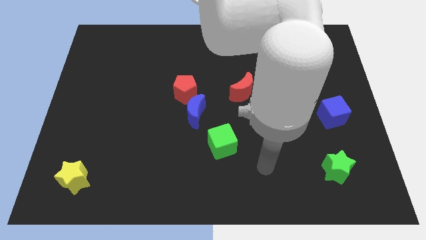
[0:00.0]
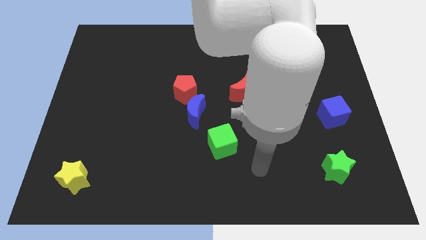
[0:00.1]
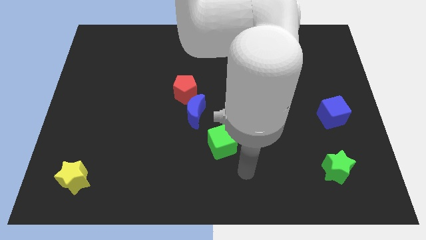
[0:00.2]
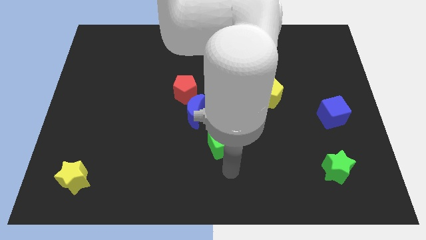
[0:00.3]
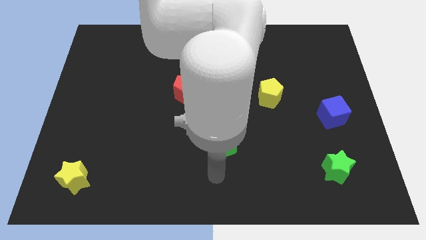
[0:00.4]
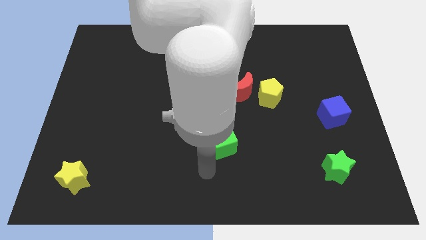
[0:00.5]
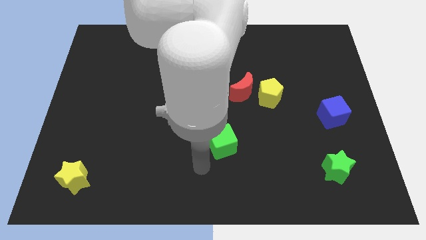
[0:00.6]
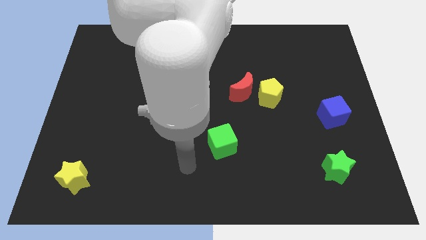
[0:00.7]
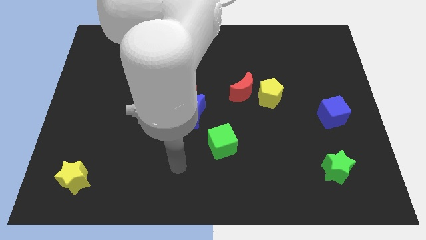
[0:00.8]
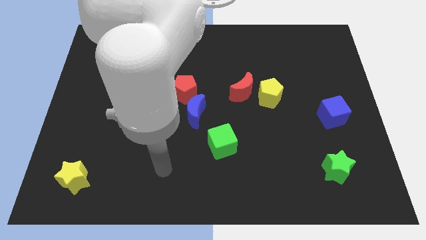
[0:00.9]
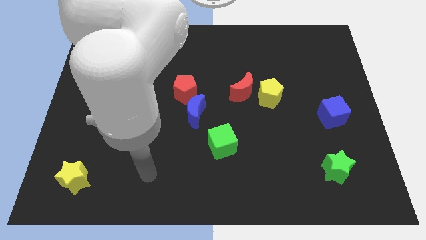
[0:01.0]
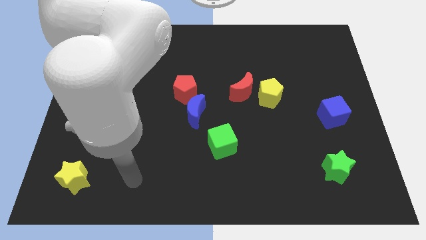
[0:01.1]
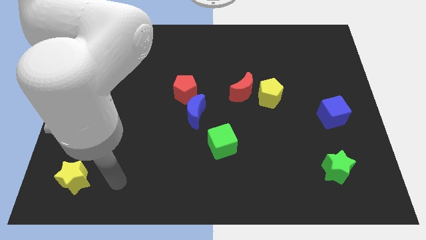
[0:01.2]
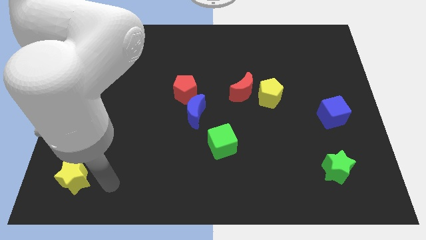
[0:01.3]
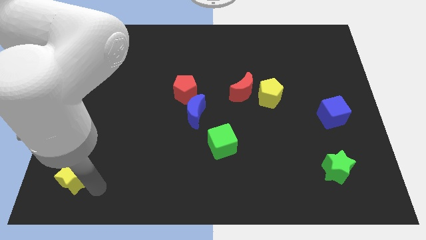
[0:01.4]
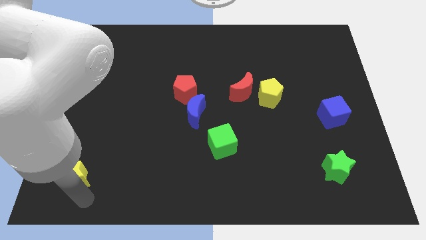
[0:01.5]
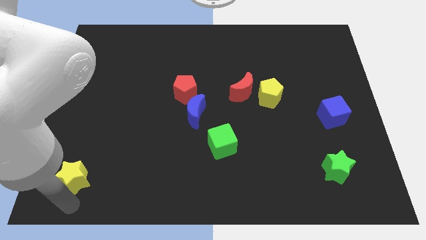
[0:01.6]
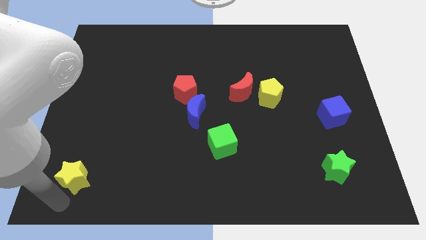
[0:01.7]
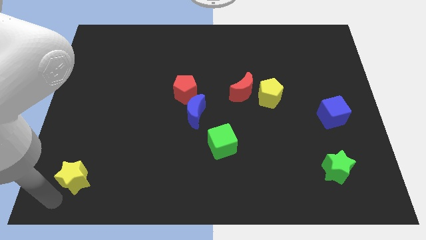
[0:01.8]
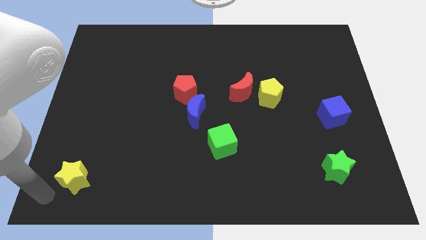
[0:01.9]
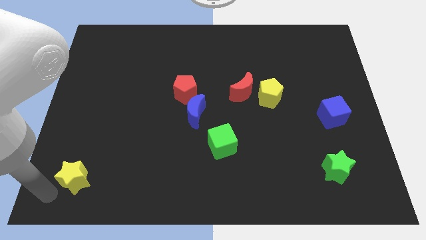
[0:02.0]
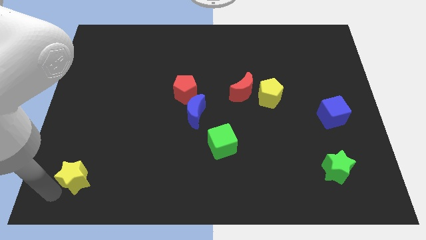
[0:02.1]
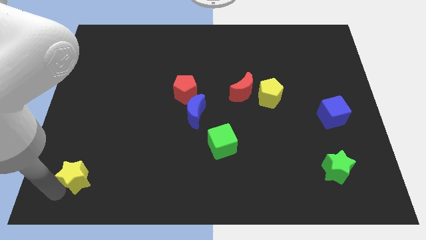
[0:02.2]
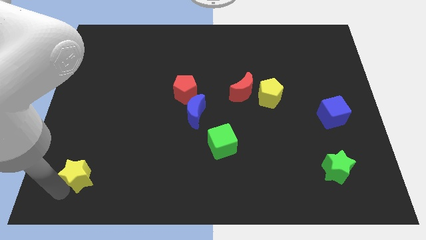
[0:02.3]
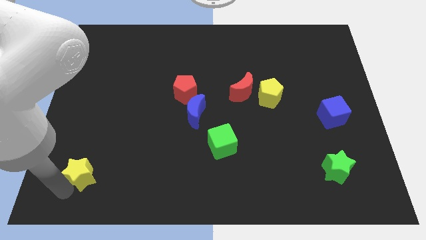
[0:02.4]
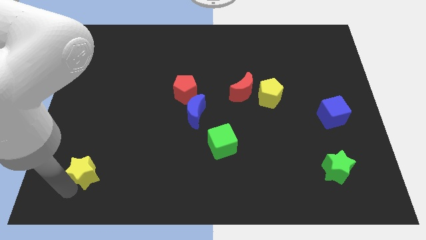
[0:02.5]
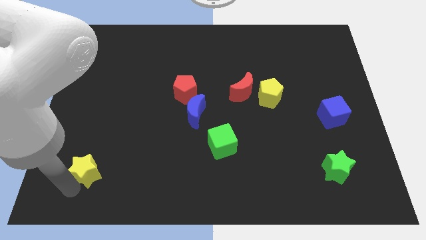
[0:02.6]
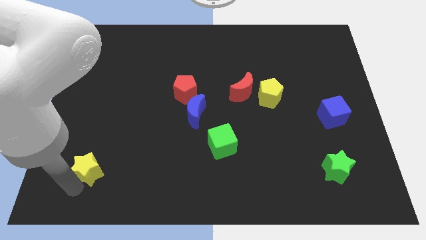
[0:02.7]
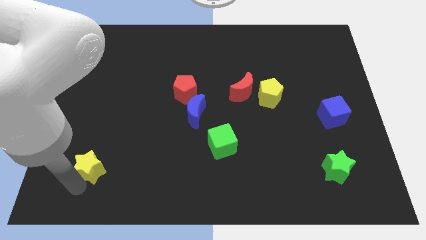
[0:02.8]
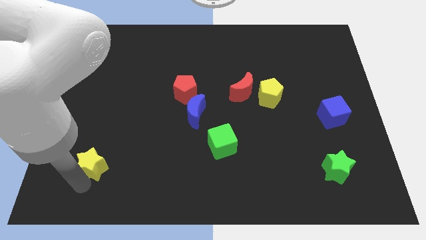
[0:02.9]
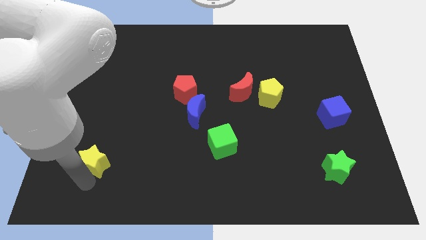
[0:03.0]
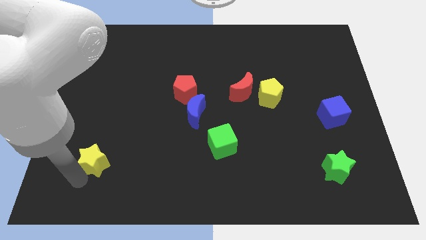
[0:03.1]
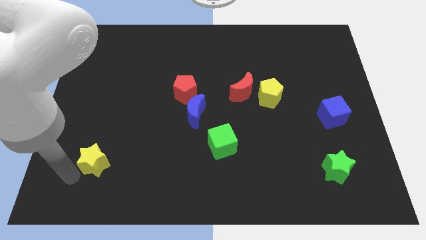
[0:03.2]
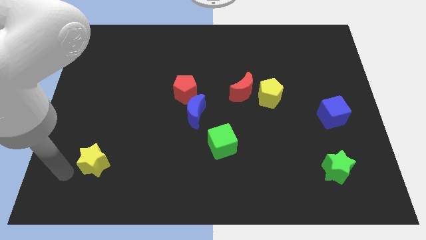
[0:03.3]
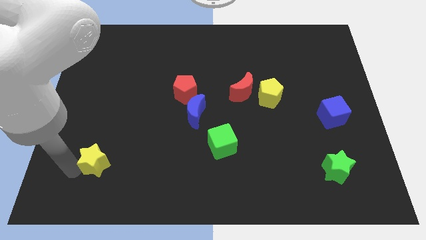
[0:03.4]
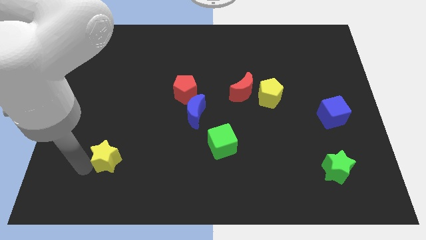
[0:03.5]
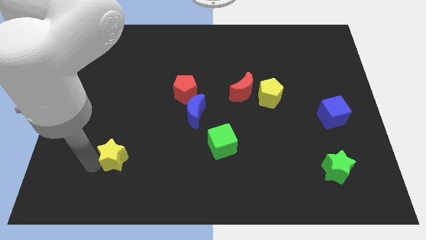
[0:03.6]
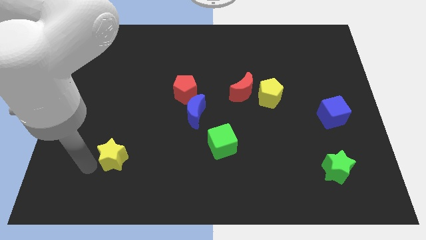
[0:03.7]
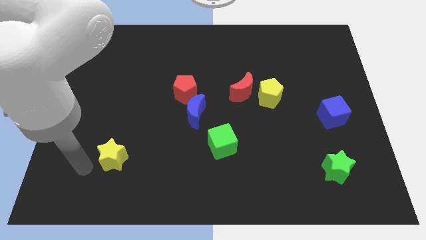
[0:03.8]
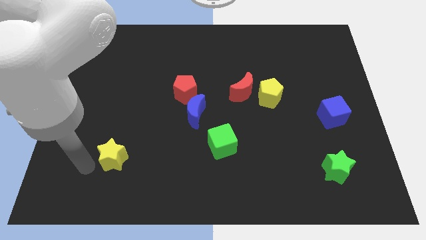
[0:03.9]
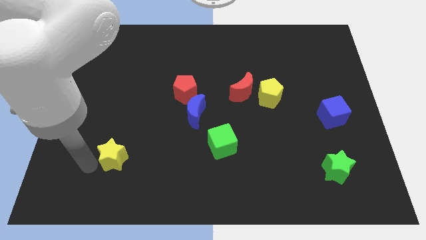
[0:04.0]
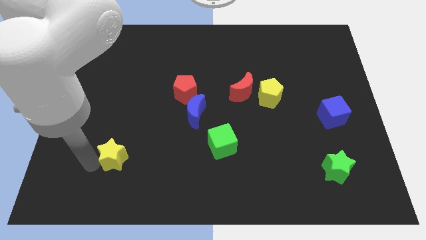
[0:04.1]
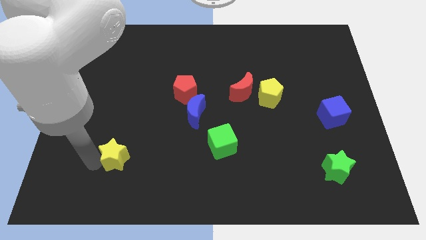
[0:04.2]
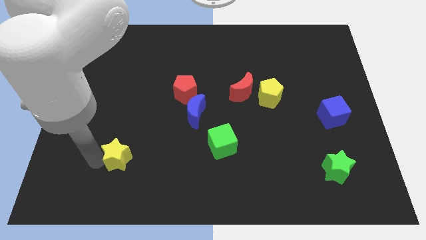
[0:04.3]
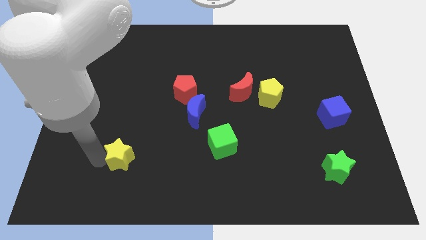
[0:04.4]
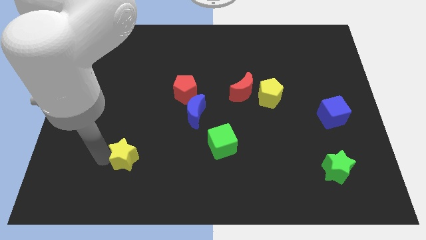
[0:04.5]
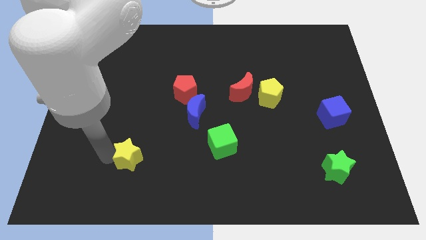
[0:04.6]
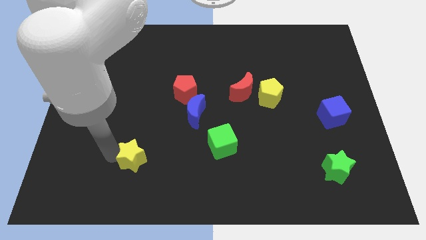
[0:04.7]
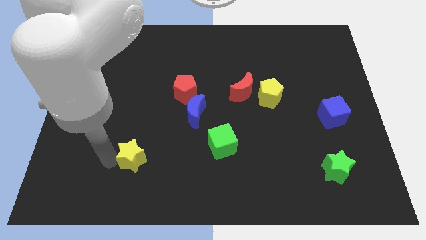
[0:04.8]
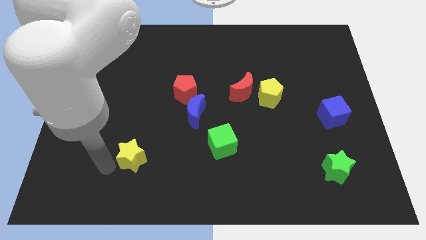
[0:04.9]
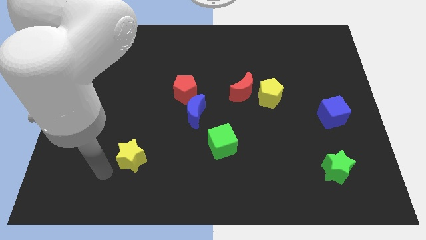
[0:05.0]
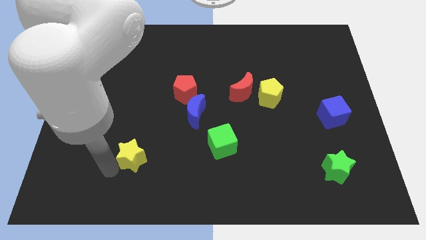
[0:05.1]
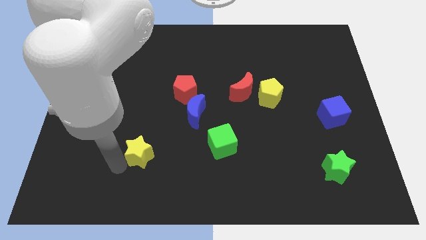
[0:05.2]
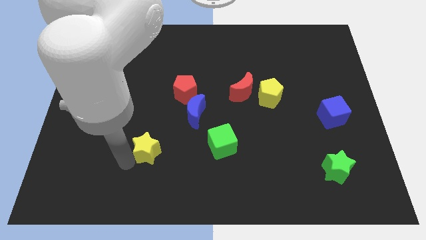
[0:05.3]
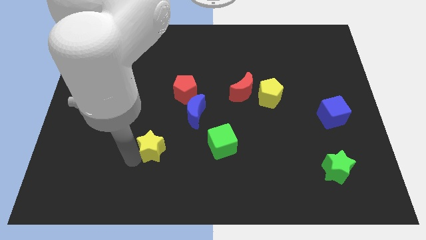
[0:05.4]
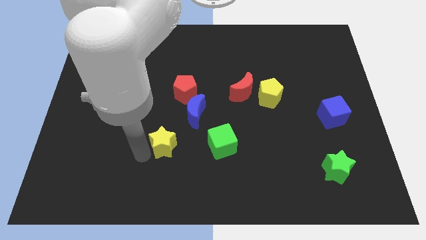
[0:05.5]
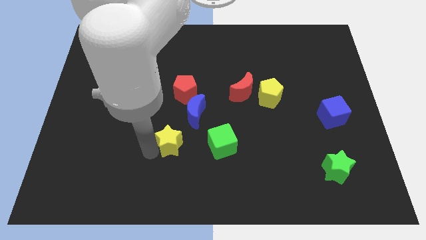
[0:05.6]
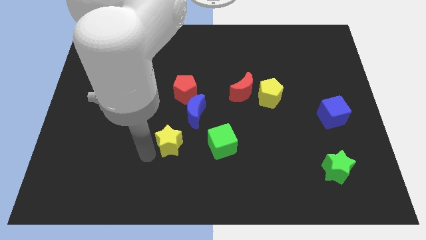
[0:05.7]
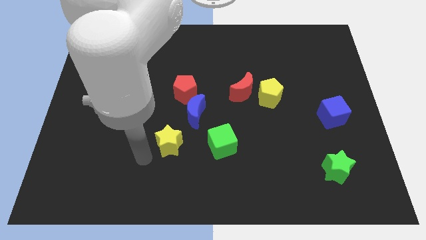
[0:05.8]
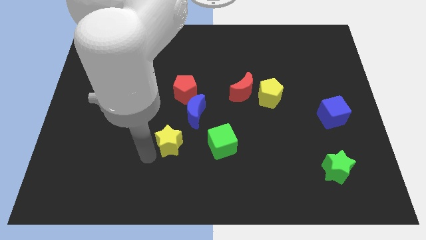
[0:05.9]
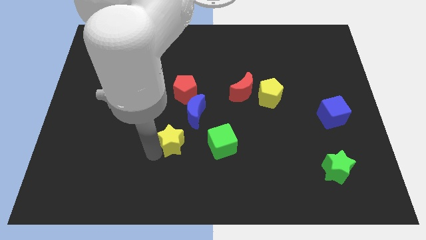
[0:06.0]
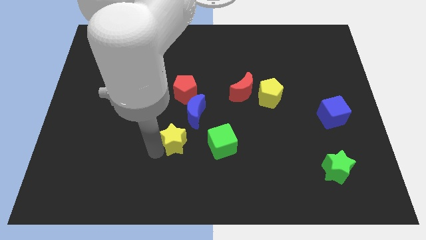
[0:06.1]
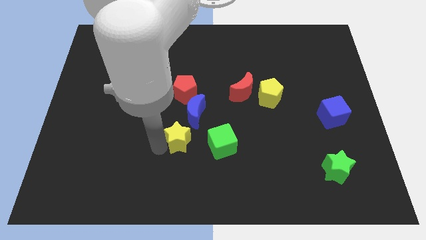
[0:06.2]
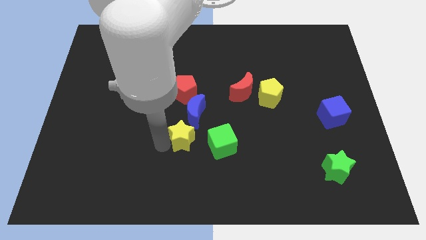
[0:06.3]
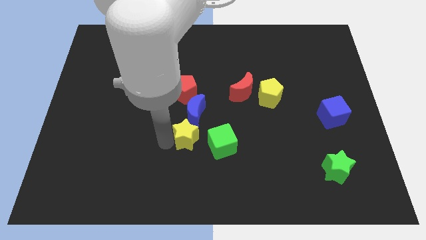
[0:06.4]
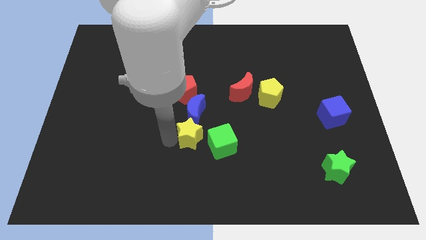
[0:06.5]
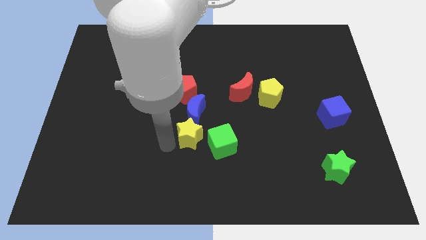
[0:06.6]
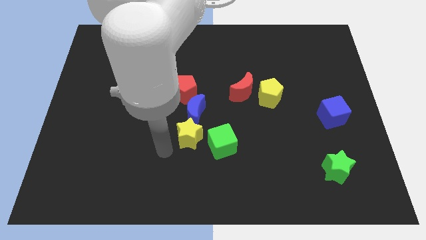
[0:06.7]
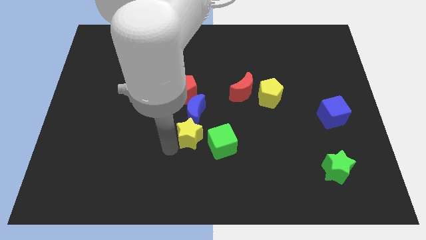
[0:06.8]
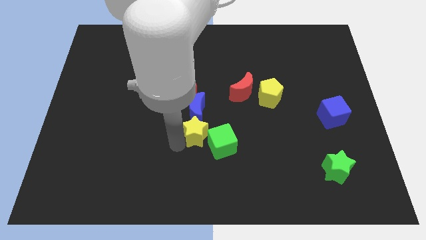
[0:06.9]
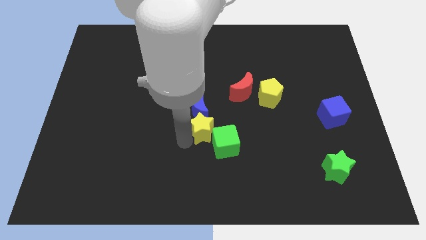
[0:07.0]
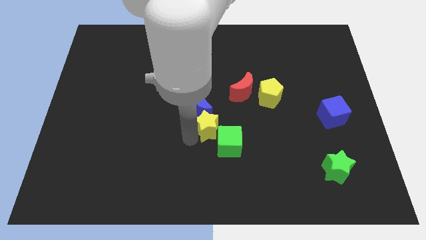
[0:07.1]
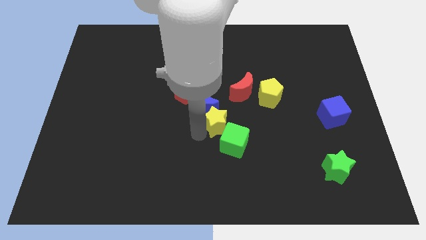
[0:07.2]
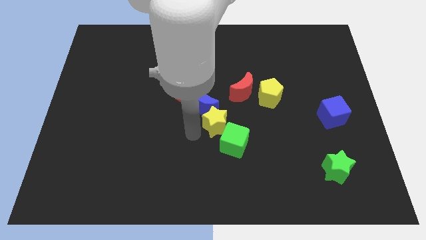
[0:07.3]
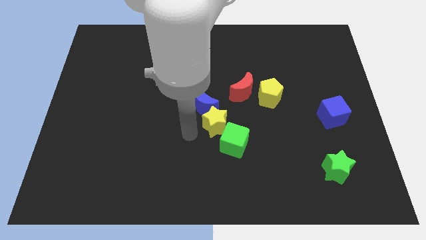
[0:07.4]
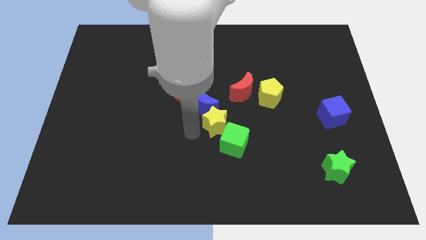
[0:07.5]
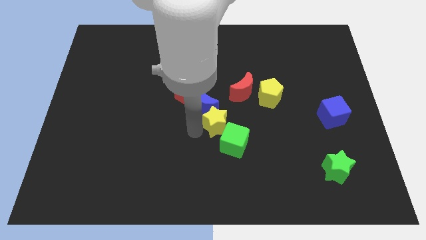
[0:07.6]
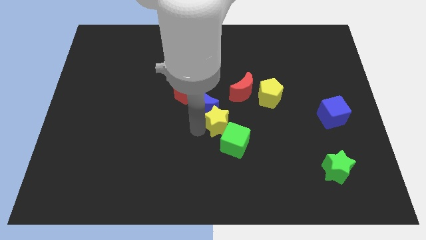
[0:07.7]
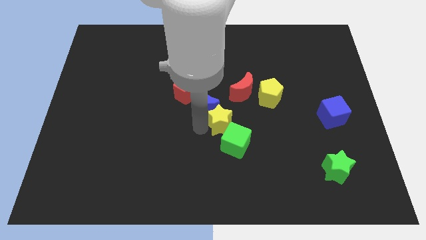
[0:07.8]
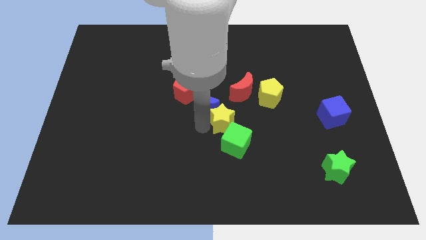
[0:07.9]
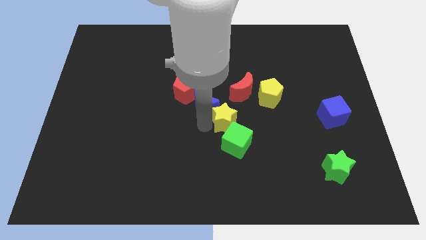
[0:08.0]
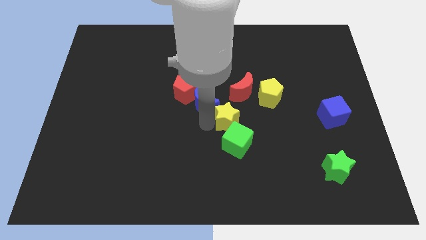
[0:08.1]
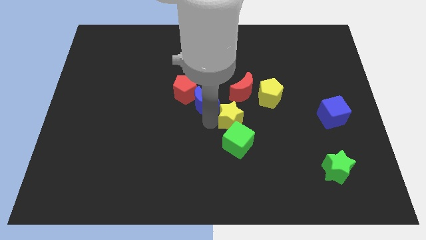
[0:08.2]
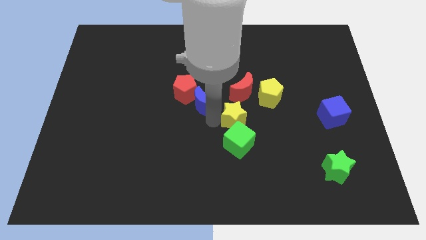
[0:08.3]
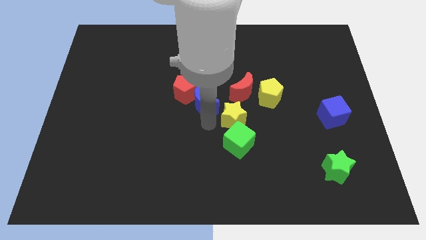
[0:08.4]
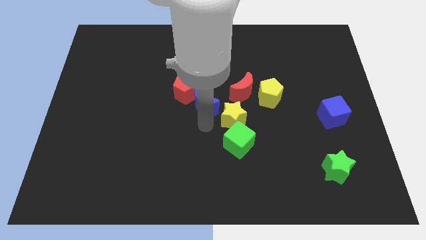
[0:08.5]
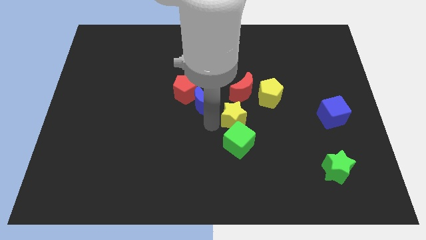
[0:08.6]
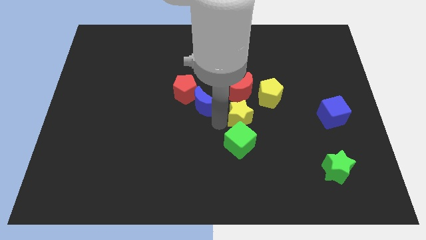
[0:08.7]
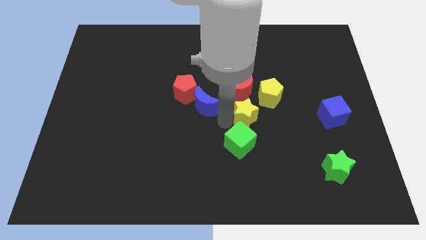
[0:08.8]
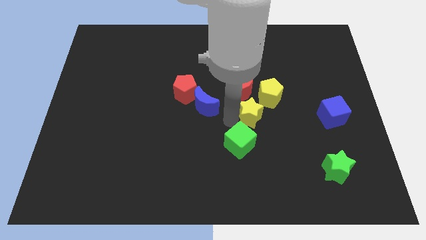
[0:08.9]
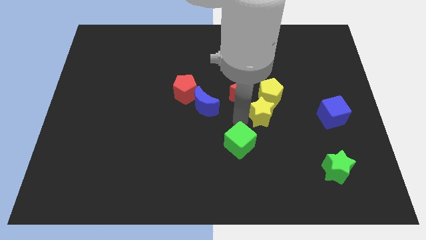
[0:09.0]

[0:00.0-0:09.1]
slide the yellow star next to the yellow pentagon
